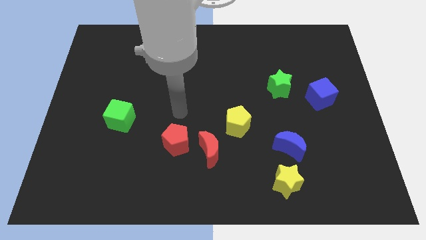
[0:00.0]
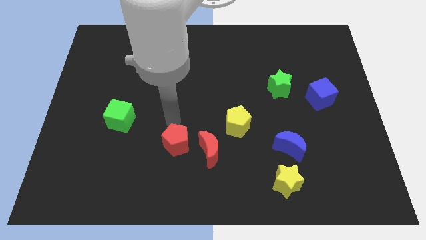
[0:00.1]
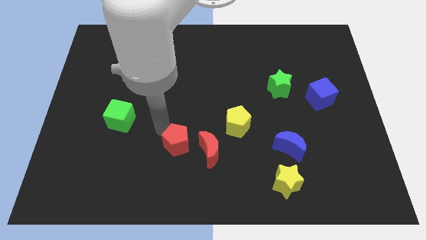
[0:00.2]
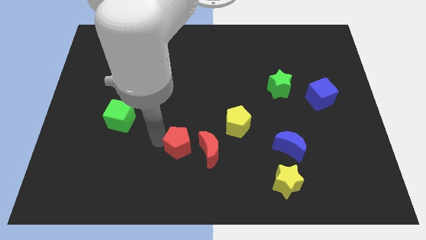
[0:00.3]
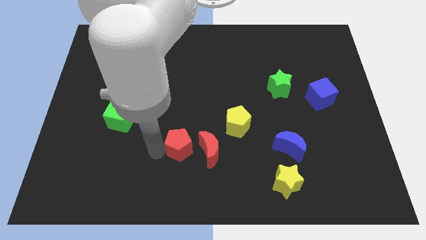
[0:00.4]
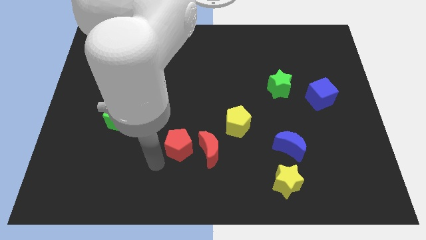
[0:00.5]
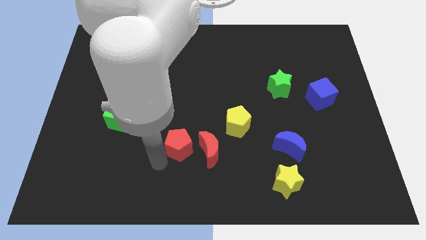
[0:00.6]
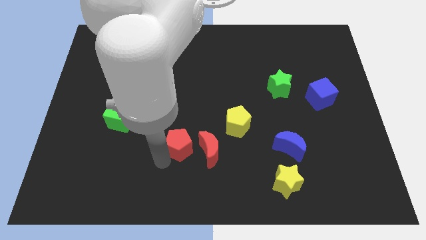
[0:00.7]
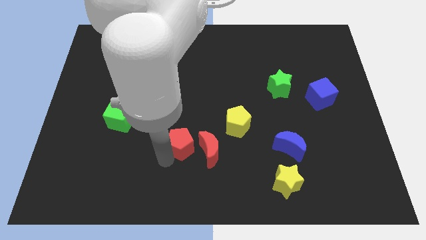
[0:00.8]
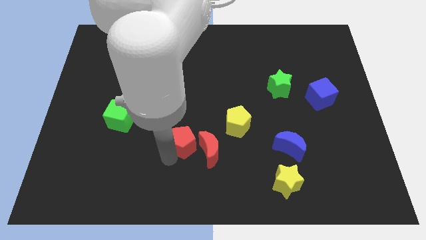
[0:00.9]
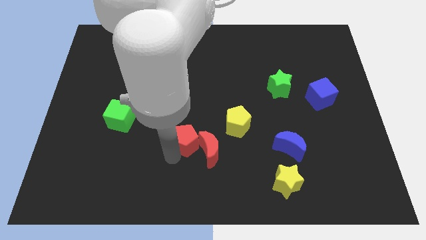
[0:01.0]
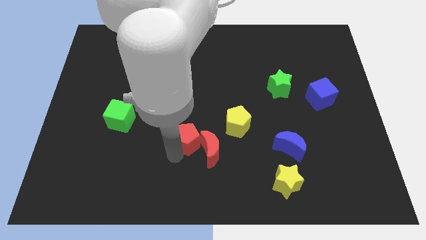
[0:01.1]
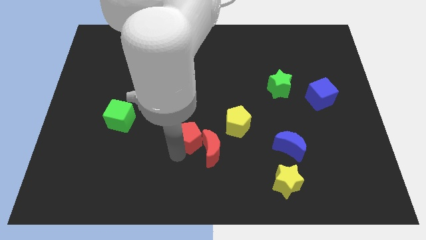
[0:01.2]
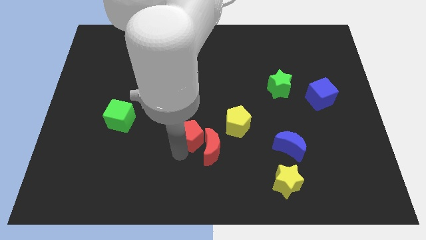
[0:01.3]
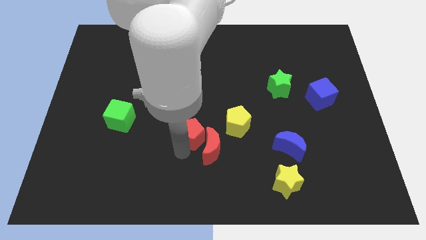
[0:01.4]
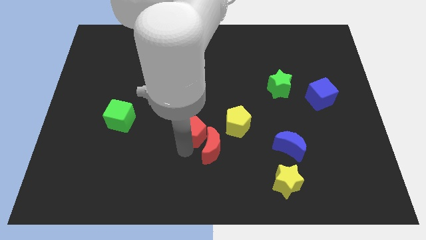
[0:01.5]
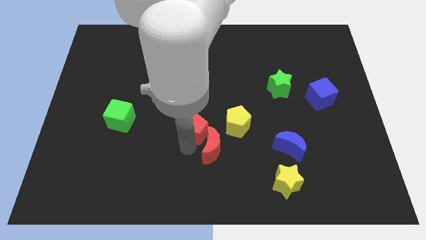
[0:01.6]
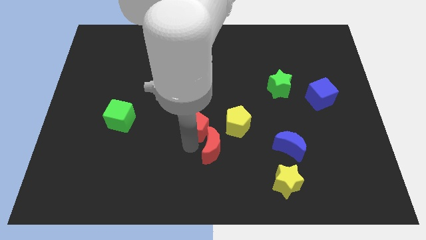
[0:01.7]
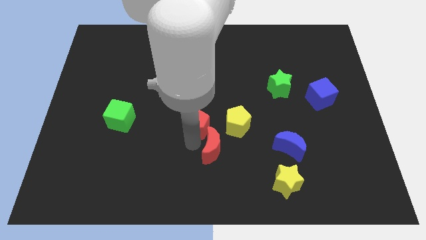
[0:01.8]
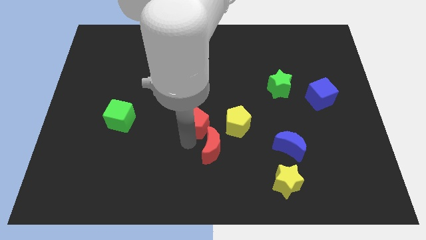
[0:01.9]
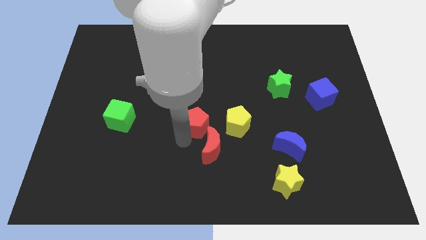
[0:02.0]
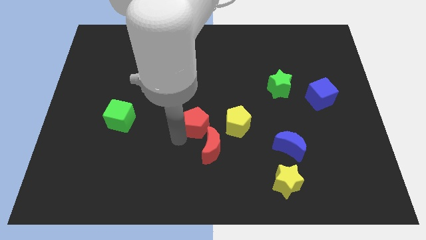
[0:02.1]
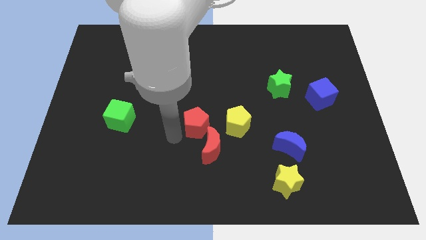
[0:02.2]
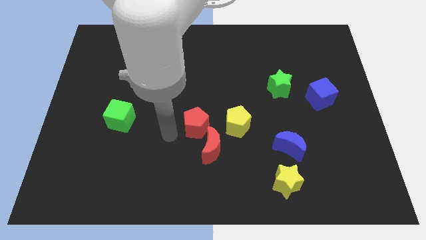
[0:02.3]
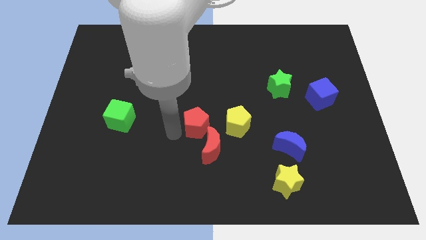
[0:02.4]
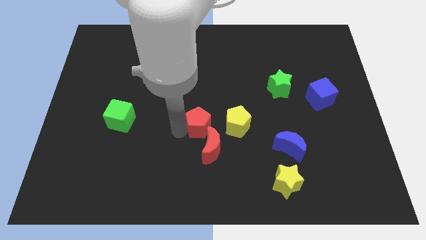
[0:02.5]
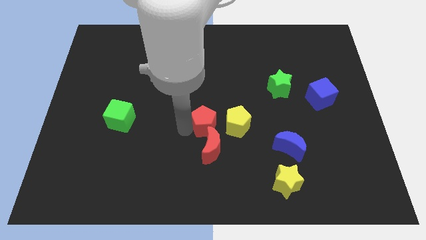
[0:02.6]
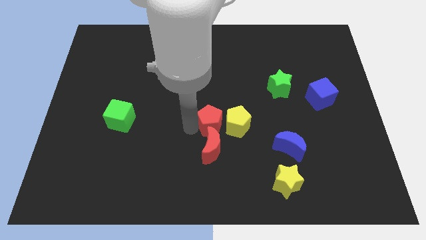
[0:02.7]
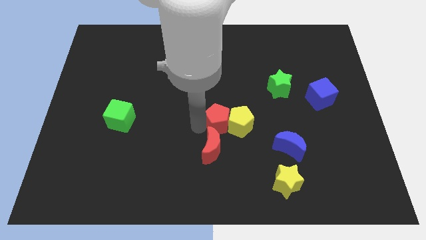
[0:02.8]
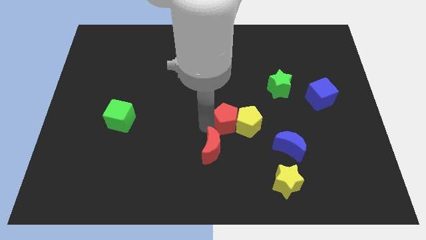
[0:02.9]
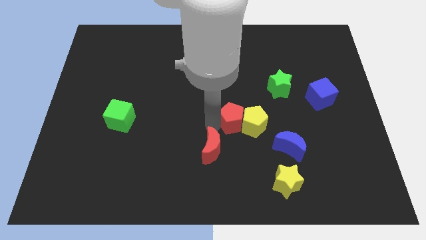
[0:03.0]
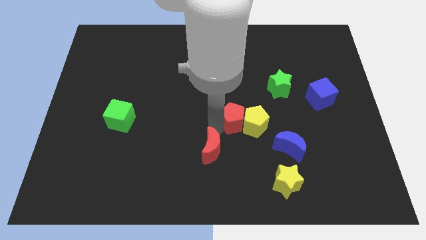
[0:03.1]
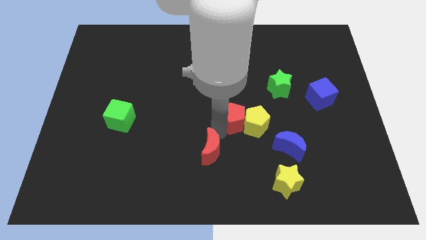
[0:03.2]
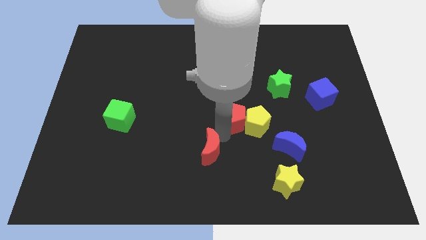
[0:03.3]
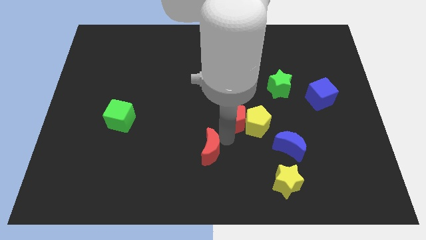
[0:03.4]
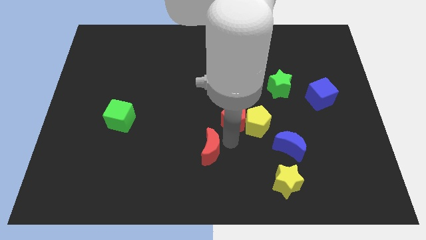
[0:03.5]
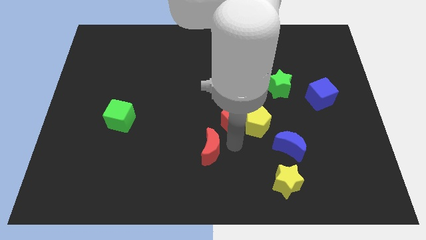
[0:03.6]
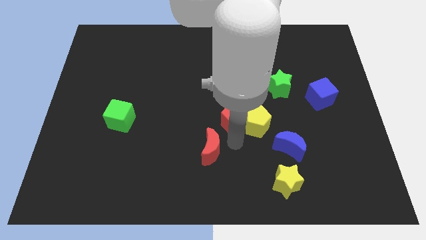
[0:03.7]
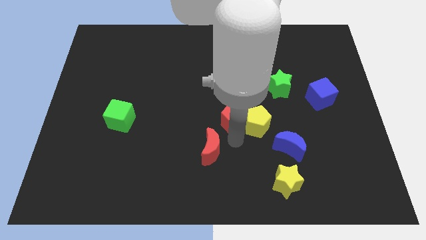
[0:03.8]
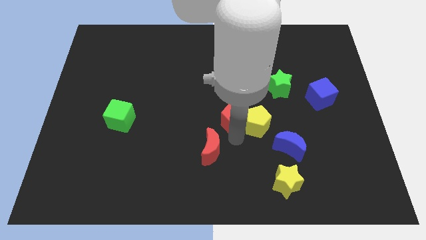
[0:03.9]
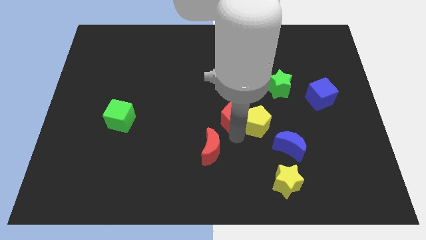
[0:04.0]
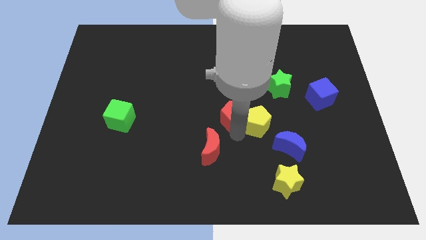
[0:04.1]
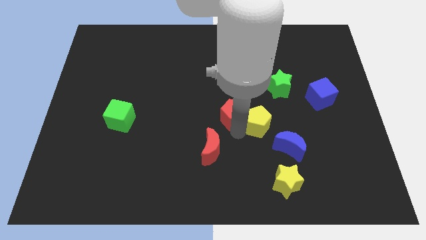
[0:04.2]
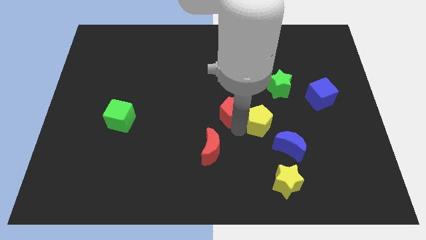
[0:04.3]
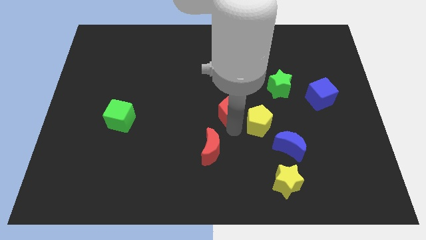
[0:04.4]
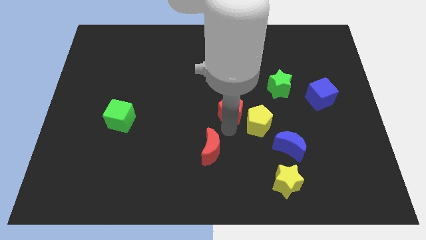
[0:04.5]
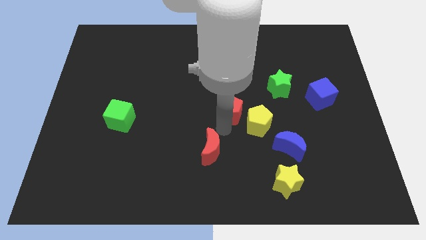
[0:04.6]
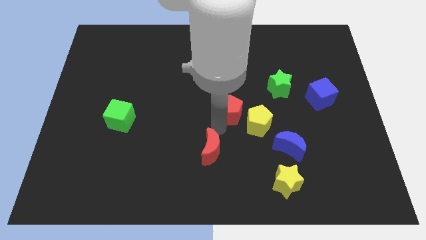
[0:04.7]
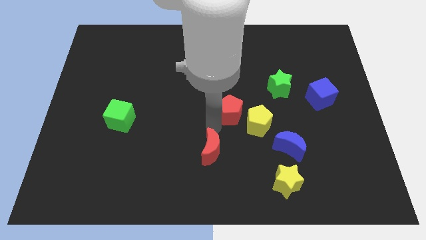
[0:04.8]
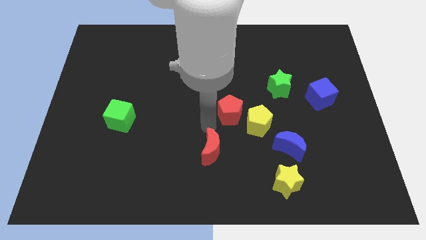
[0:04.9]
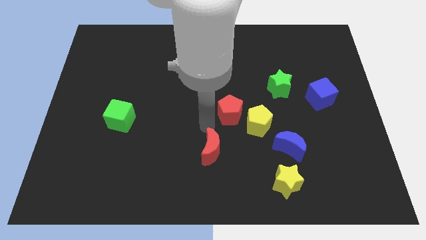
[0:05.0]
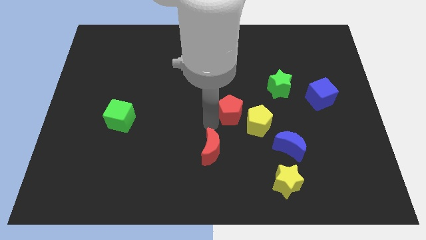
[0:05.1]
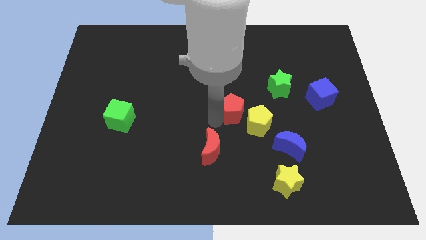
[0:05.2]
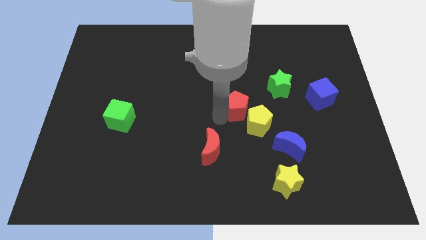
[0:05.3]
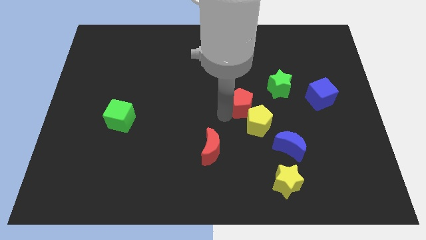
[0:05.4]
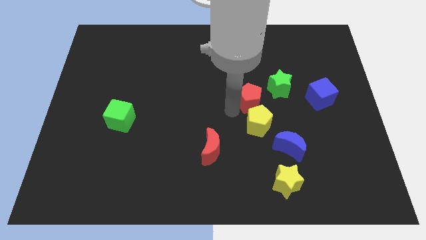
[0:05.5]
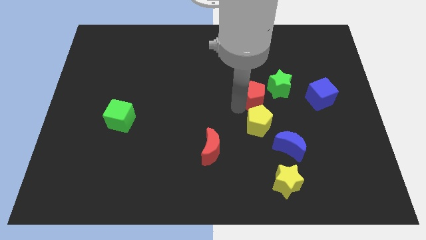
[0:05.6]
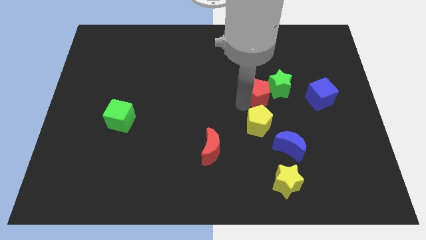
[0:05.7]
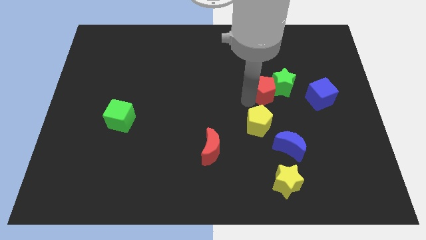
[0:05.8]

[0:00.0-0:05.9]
slide the red pentagon close to the green star

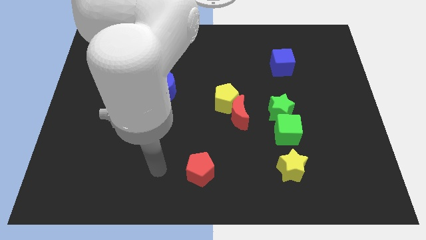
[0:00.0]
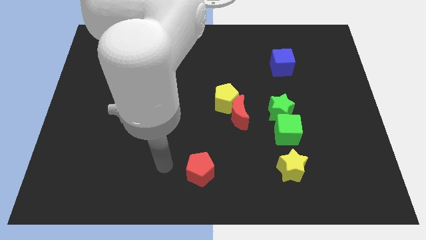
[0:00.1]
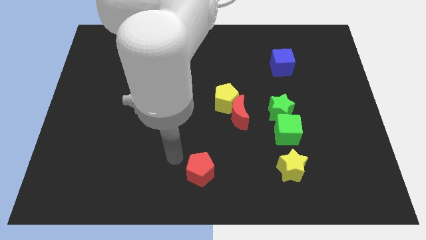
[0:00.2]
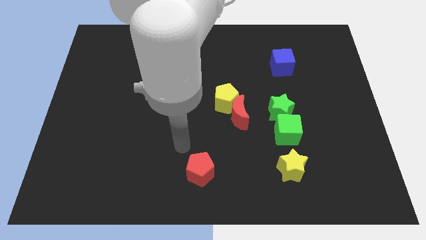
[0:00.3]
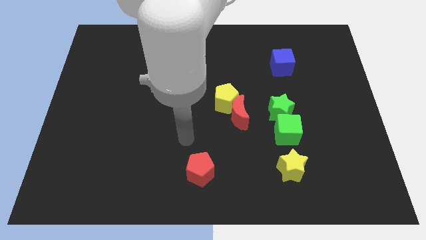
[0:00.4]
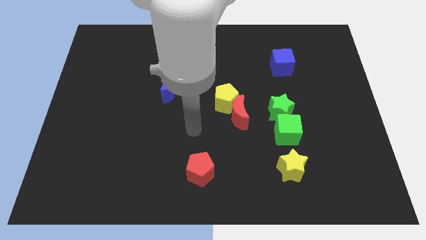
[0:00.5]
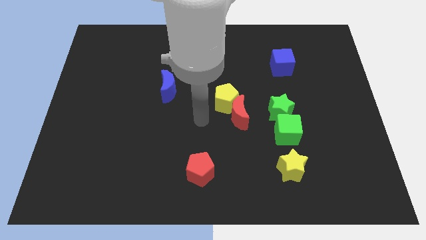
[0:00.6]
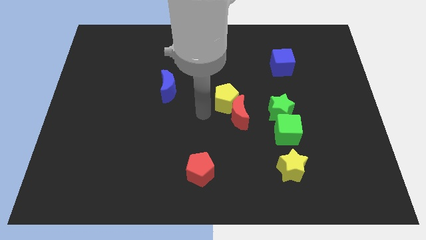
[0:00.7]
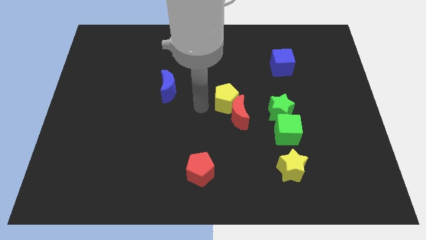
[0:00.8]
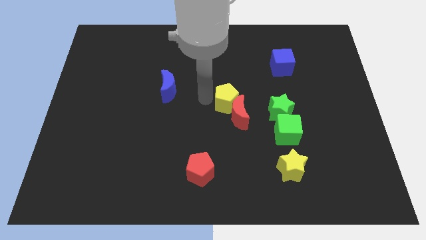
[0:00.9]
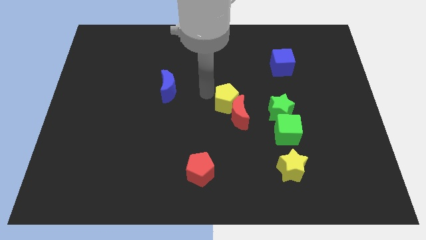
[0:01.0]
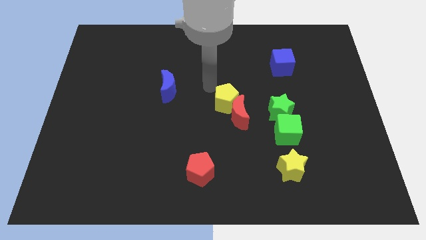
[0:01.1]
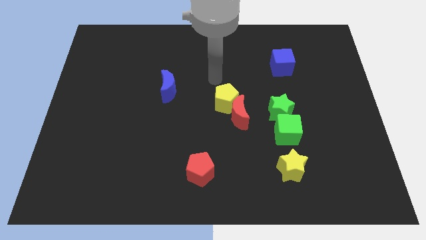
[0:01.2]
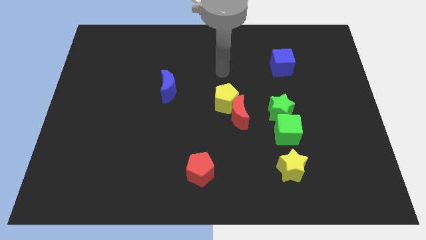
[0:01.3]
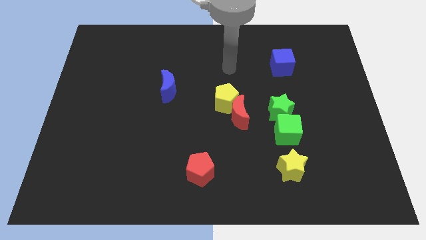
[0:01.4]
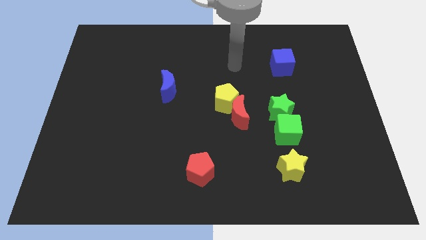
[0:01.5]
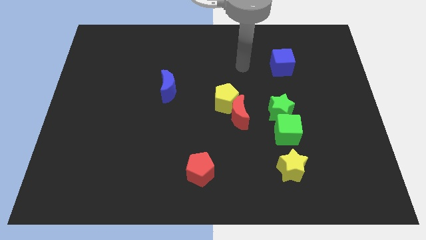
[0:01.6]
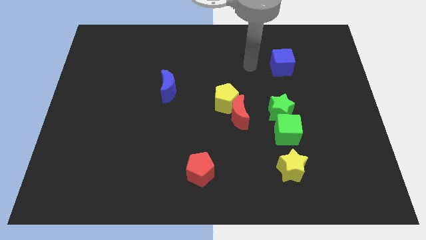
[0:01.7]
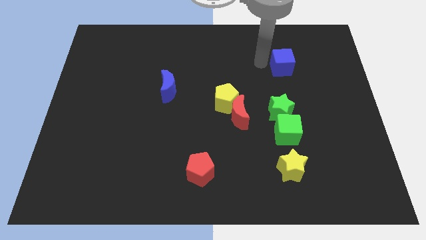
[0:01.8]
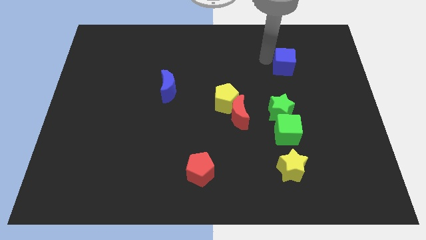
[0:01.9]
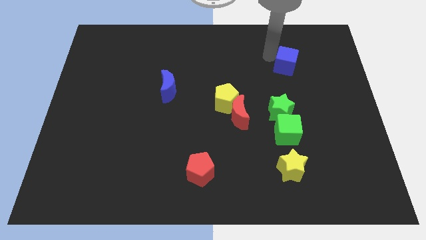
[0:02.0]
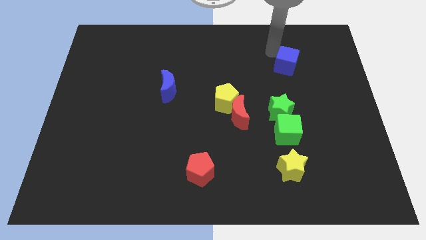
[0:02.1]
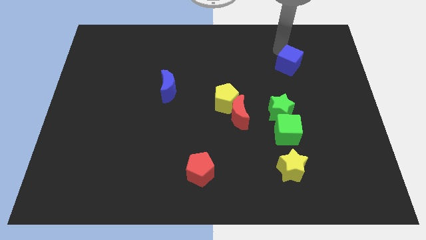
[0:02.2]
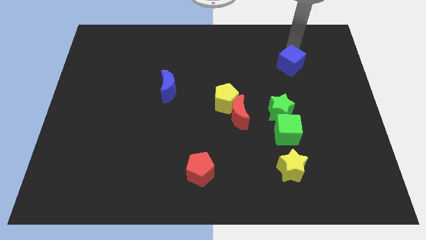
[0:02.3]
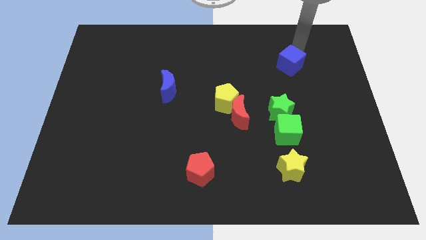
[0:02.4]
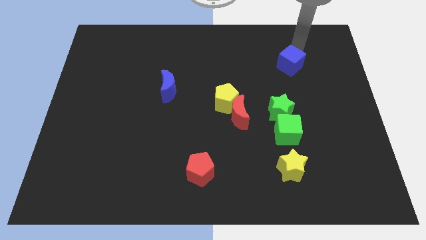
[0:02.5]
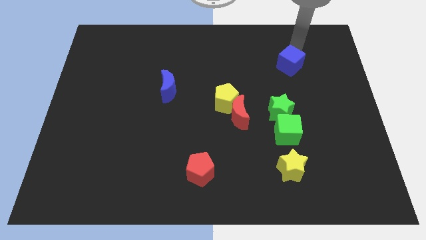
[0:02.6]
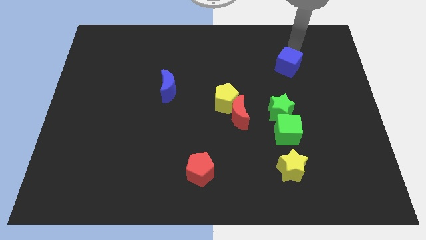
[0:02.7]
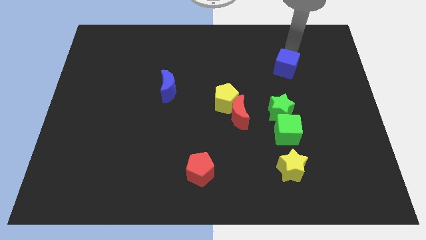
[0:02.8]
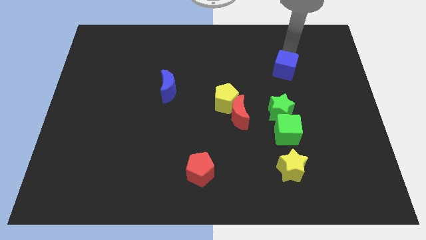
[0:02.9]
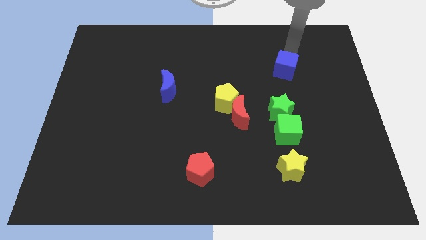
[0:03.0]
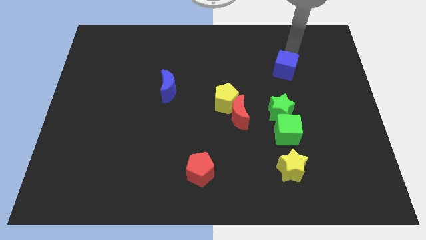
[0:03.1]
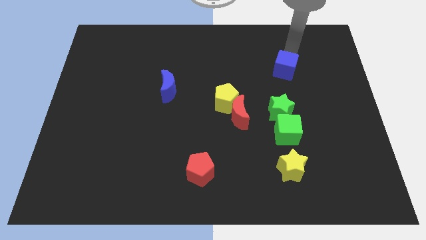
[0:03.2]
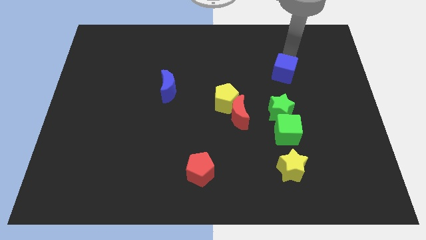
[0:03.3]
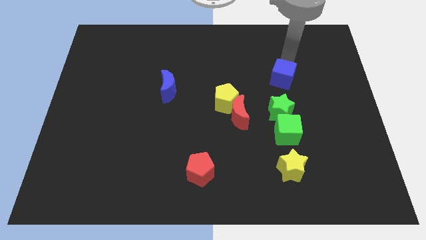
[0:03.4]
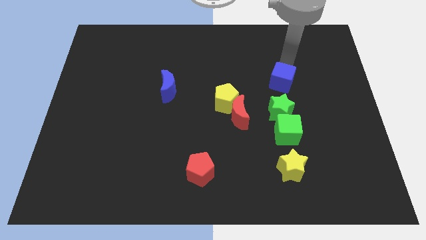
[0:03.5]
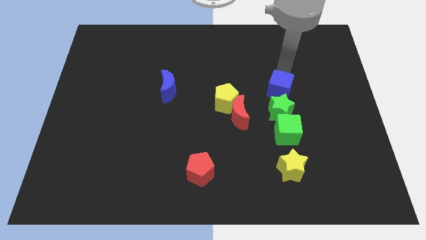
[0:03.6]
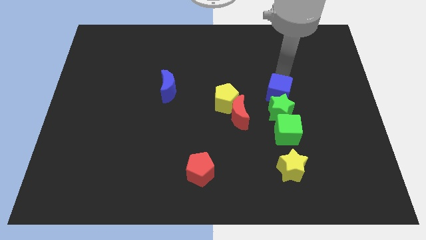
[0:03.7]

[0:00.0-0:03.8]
push the blue cube towards the green star
